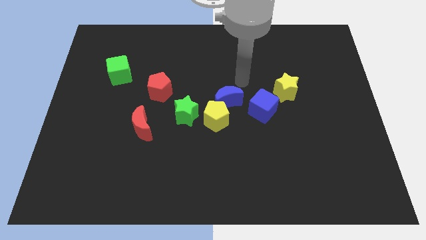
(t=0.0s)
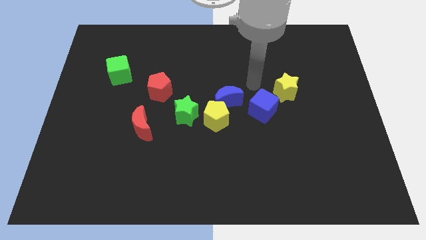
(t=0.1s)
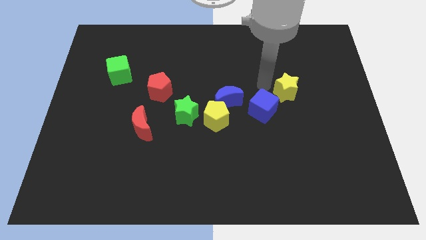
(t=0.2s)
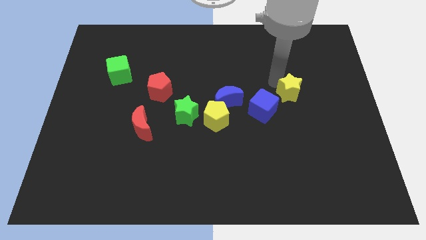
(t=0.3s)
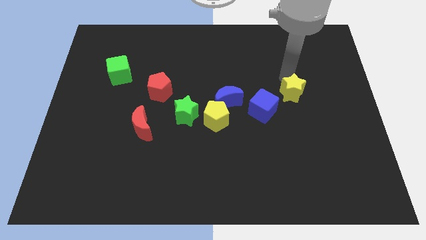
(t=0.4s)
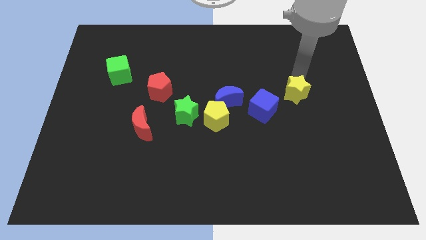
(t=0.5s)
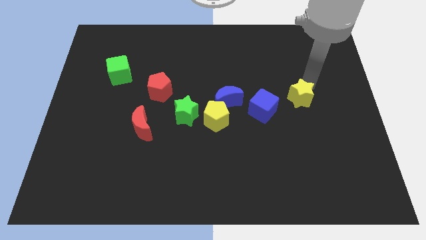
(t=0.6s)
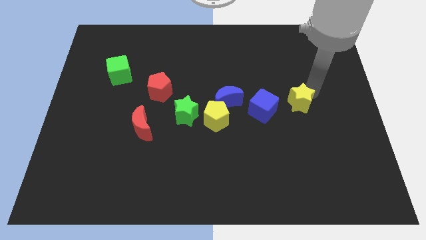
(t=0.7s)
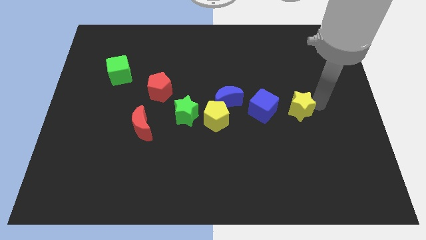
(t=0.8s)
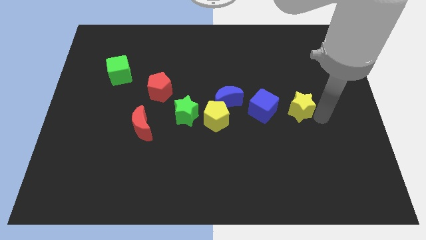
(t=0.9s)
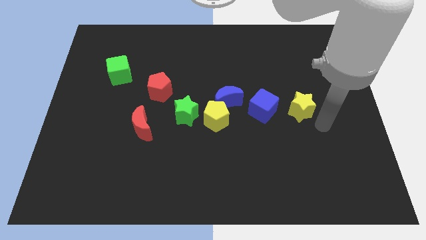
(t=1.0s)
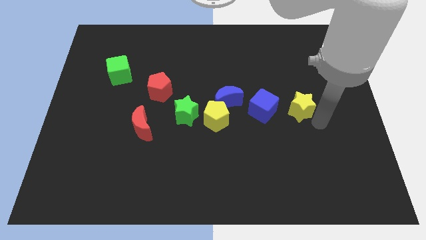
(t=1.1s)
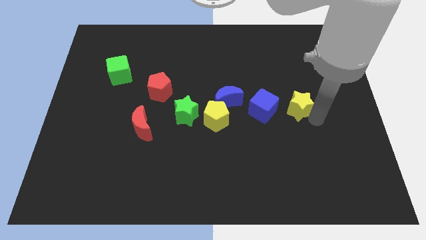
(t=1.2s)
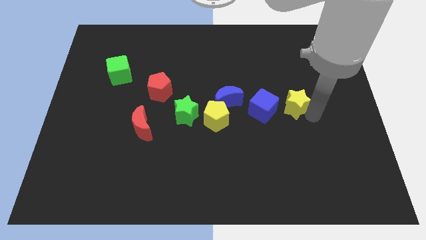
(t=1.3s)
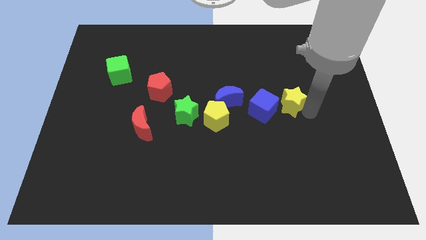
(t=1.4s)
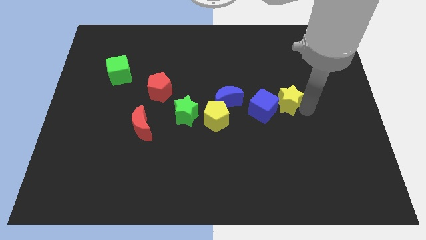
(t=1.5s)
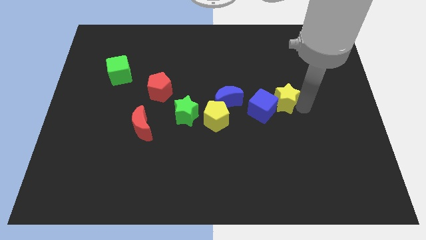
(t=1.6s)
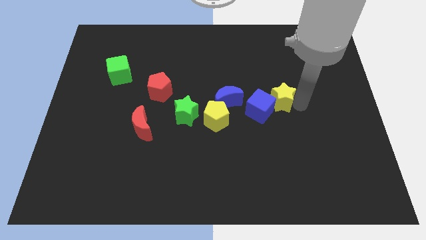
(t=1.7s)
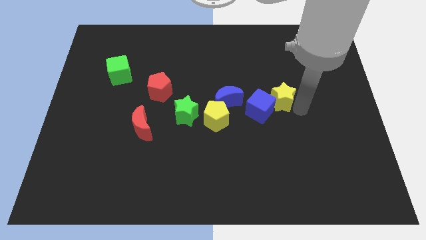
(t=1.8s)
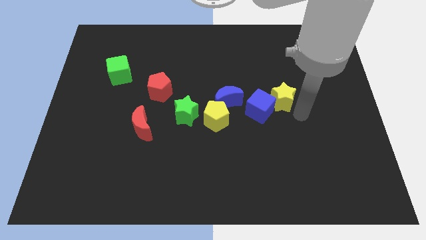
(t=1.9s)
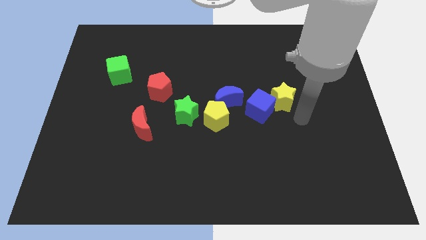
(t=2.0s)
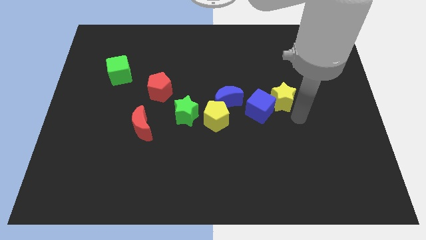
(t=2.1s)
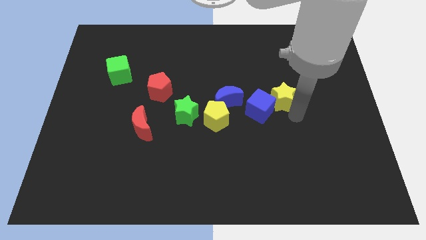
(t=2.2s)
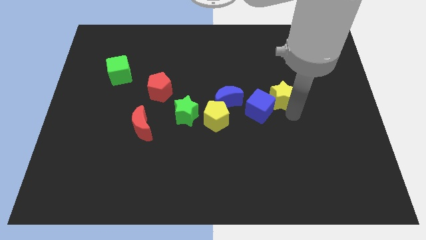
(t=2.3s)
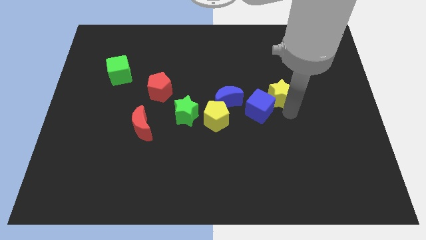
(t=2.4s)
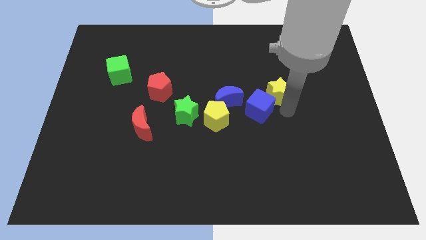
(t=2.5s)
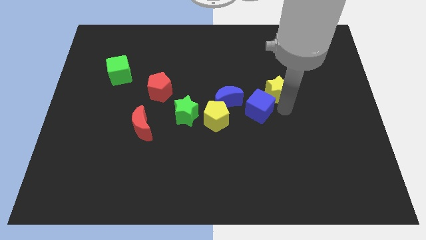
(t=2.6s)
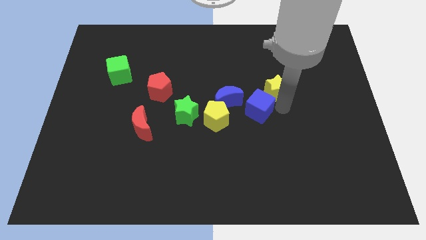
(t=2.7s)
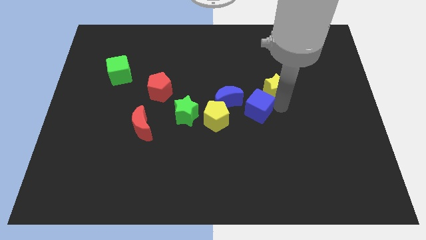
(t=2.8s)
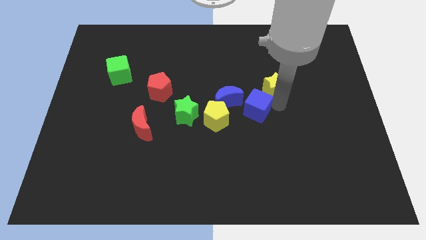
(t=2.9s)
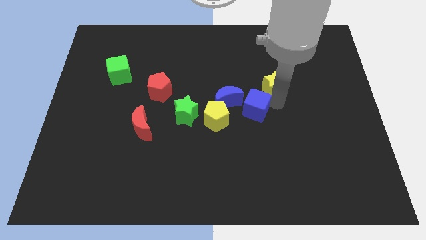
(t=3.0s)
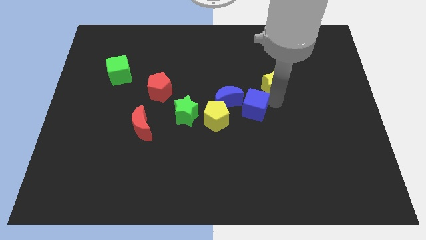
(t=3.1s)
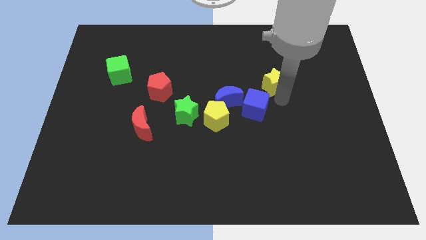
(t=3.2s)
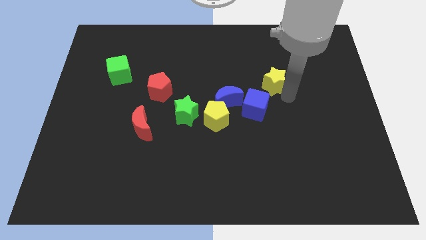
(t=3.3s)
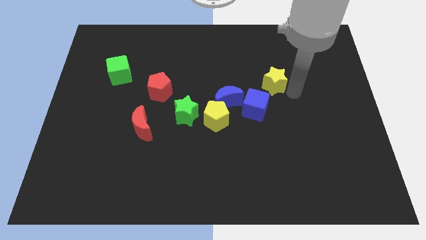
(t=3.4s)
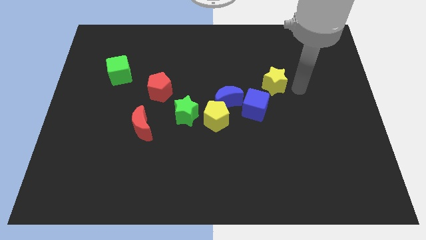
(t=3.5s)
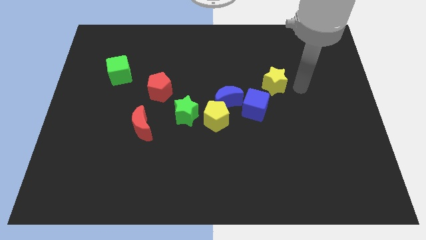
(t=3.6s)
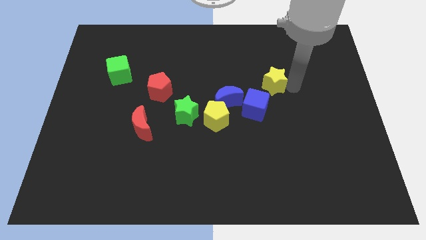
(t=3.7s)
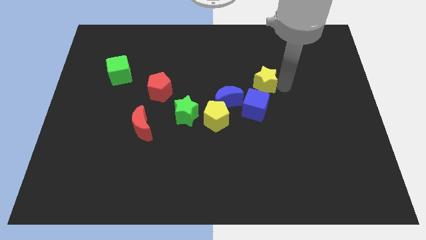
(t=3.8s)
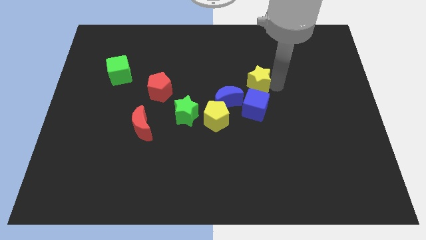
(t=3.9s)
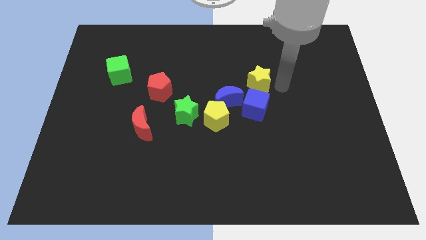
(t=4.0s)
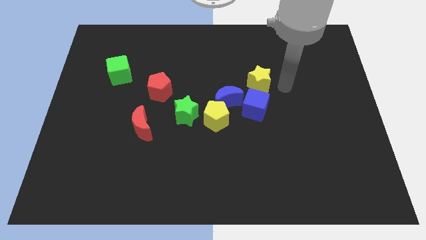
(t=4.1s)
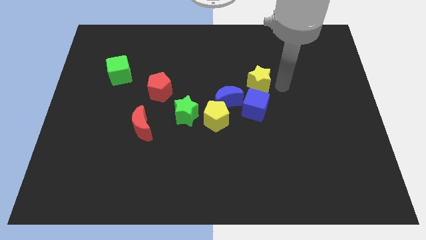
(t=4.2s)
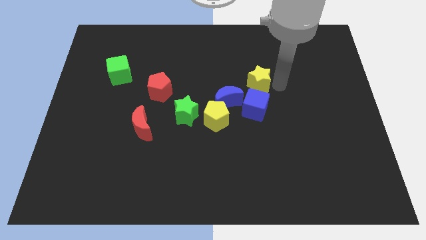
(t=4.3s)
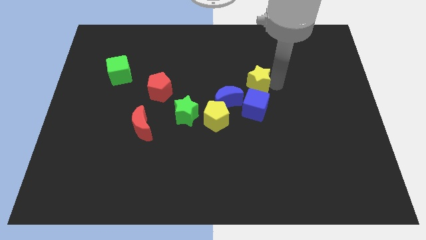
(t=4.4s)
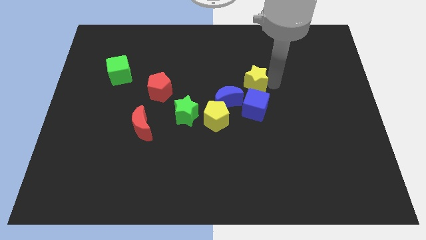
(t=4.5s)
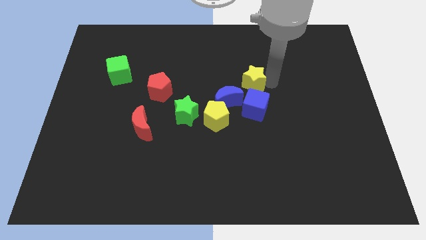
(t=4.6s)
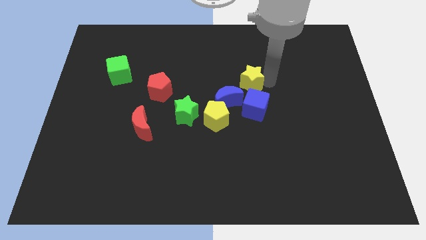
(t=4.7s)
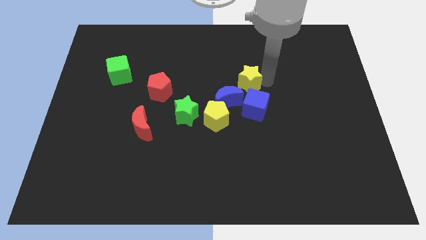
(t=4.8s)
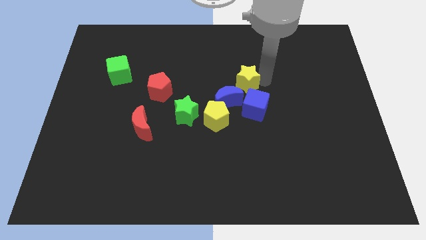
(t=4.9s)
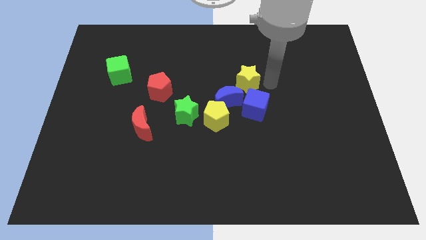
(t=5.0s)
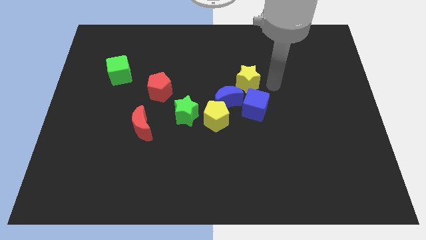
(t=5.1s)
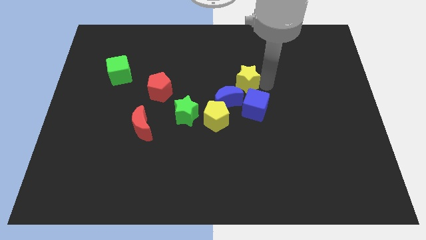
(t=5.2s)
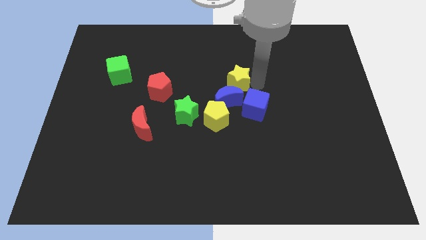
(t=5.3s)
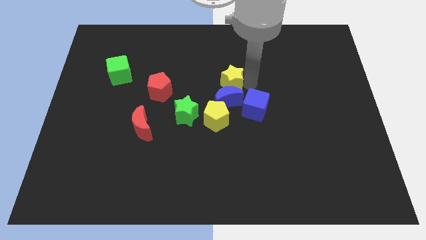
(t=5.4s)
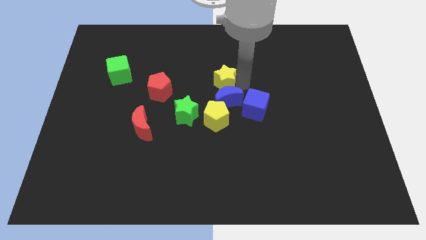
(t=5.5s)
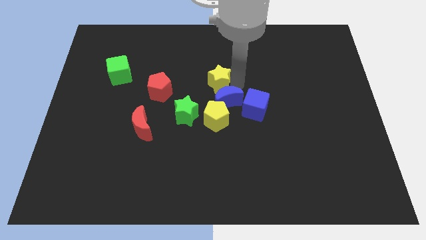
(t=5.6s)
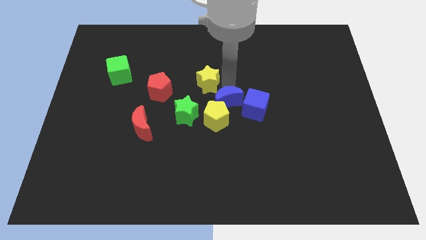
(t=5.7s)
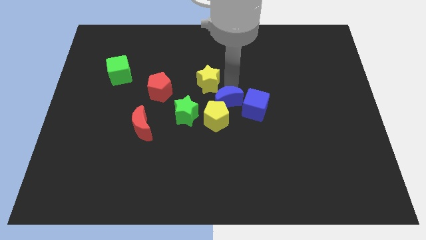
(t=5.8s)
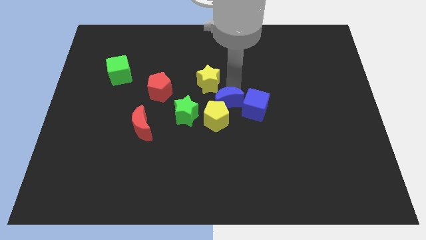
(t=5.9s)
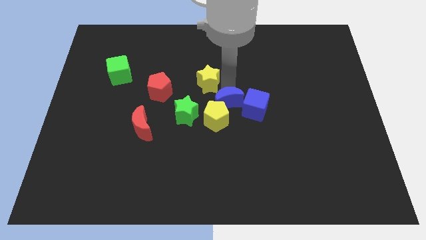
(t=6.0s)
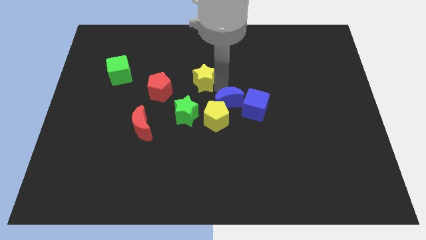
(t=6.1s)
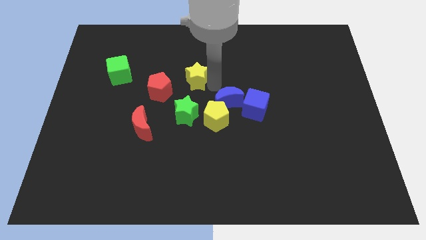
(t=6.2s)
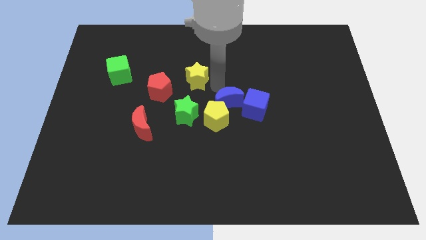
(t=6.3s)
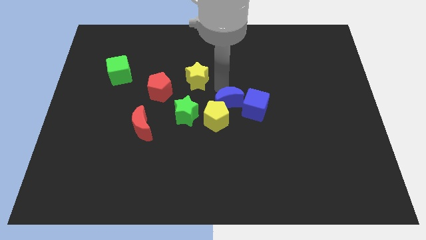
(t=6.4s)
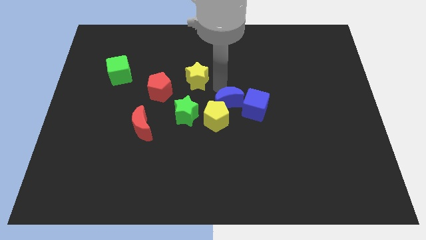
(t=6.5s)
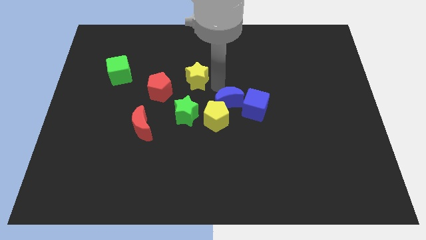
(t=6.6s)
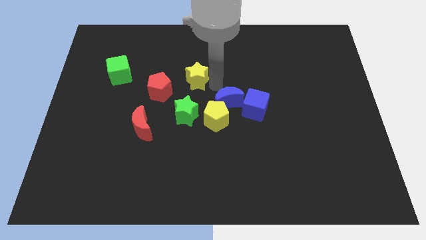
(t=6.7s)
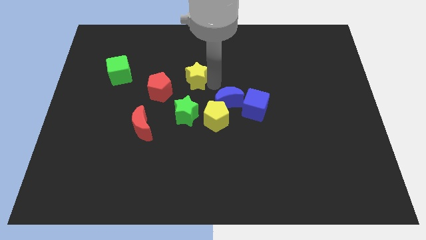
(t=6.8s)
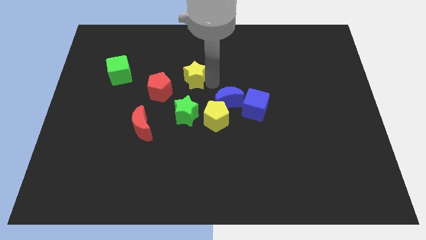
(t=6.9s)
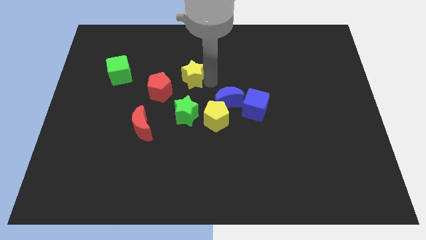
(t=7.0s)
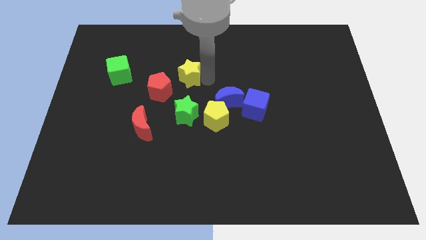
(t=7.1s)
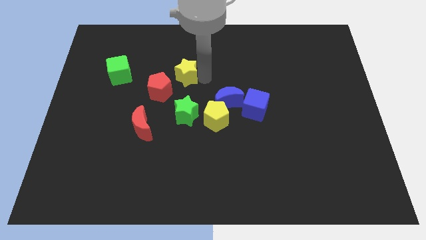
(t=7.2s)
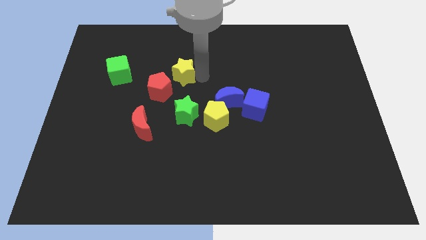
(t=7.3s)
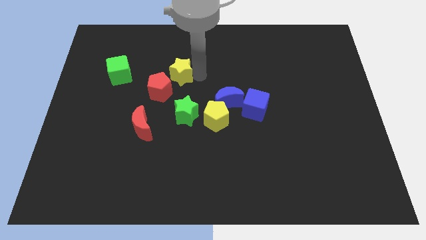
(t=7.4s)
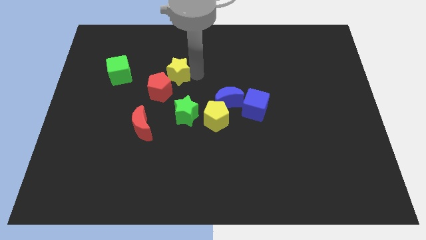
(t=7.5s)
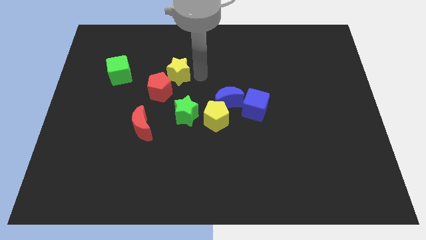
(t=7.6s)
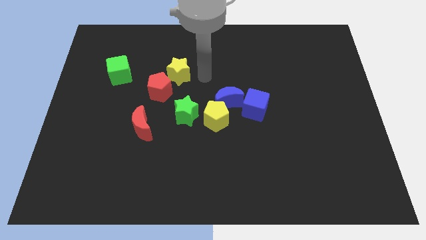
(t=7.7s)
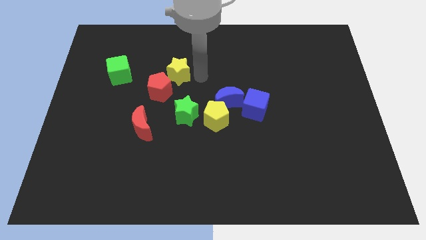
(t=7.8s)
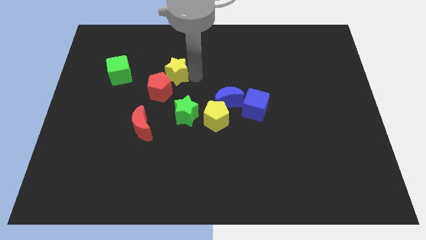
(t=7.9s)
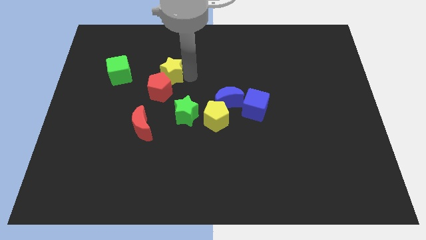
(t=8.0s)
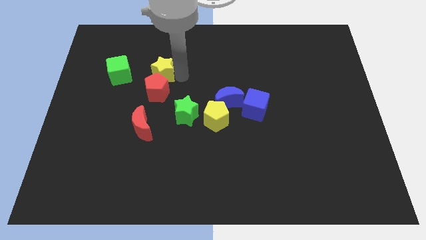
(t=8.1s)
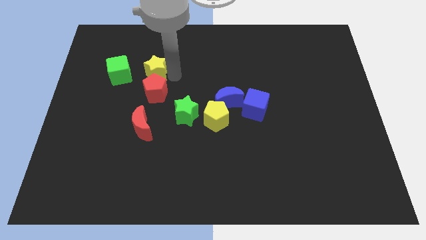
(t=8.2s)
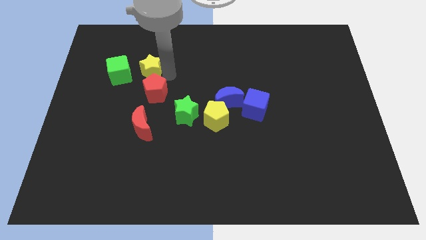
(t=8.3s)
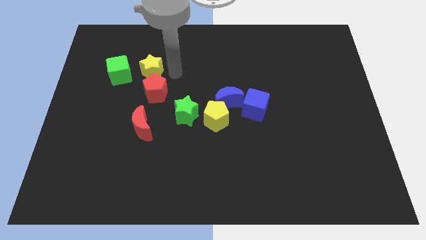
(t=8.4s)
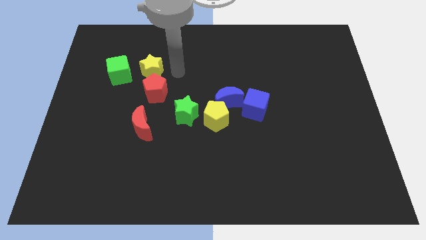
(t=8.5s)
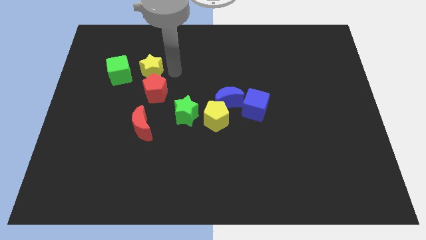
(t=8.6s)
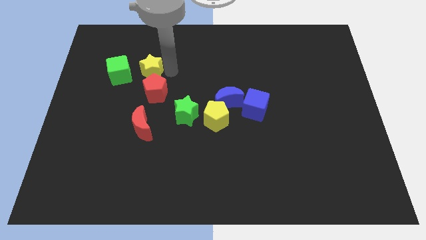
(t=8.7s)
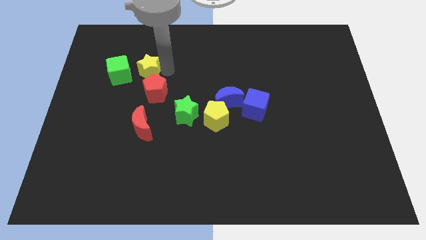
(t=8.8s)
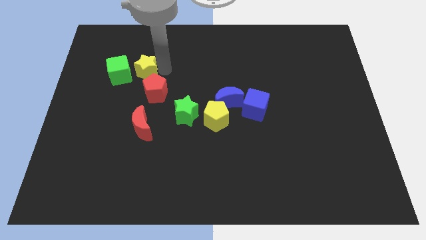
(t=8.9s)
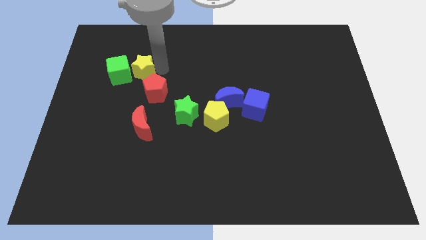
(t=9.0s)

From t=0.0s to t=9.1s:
push the yellow star towards the green cube
